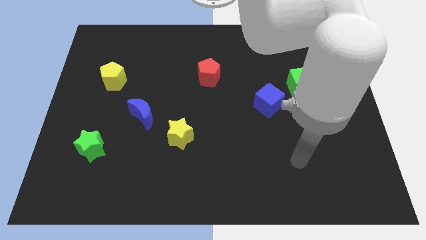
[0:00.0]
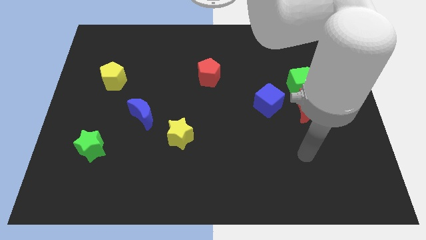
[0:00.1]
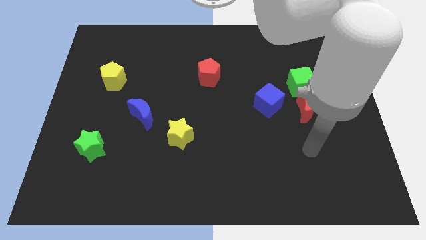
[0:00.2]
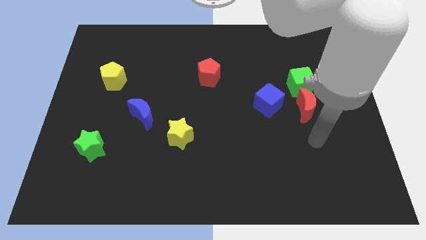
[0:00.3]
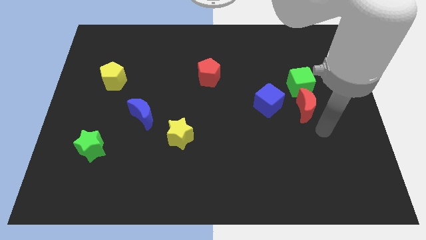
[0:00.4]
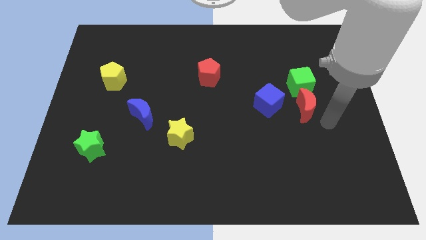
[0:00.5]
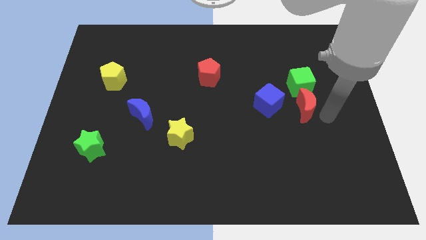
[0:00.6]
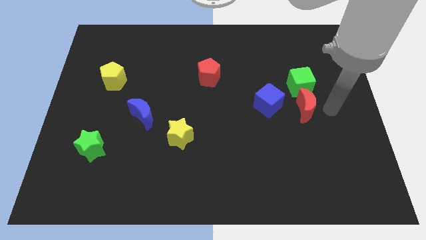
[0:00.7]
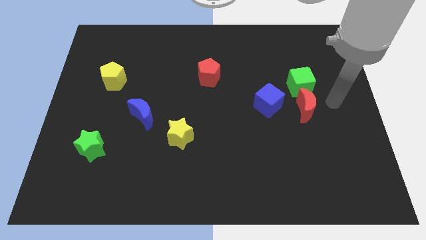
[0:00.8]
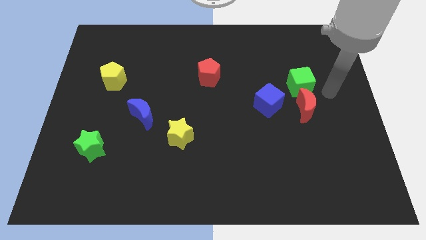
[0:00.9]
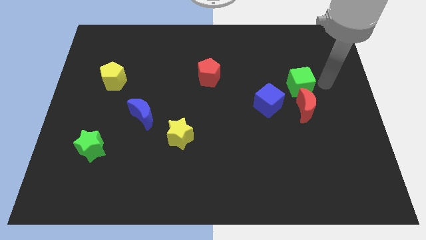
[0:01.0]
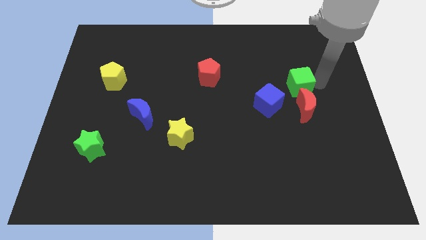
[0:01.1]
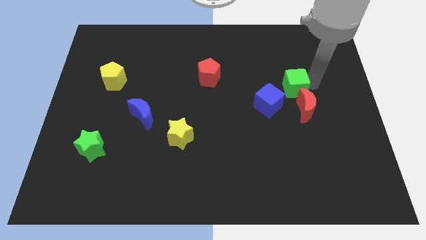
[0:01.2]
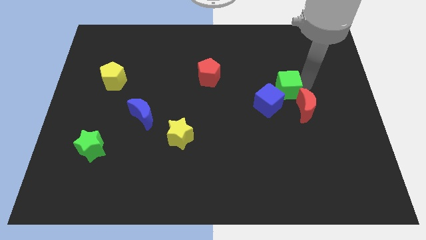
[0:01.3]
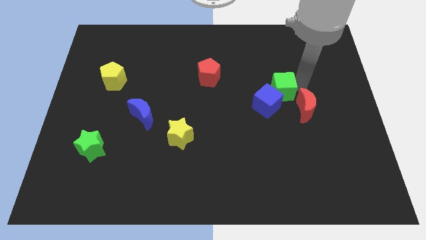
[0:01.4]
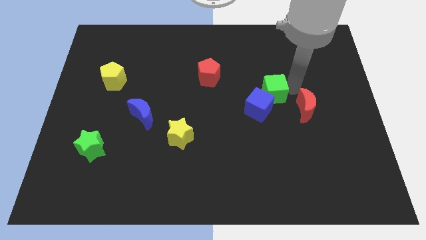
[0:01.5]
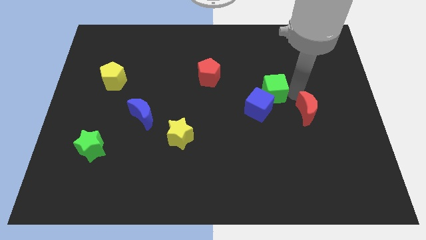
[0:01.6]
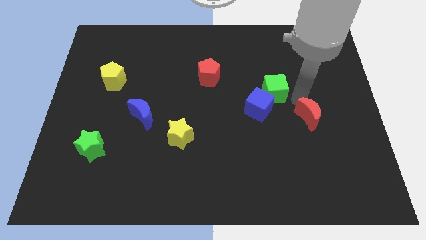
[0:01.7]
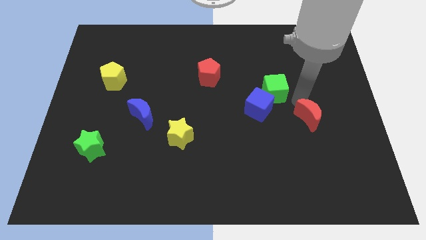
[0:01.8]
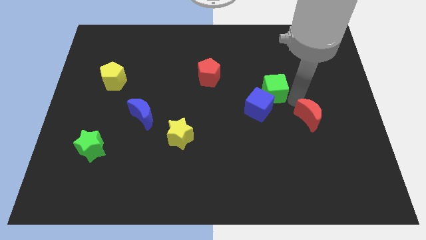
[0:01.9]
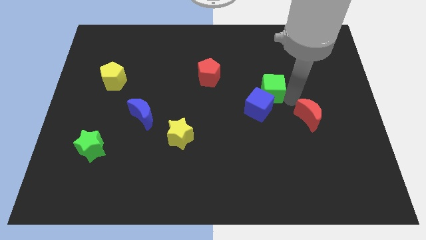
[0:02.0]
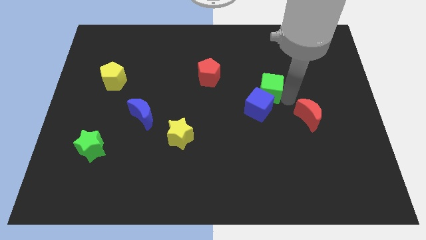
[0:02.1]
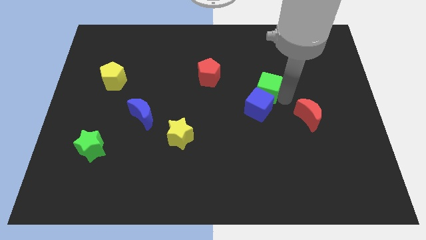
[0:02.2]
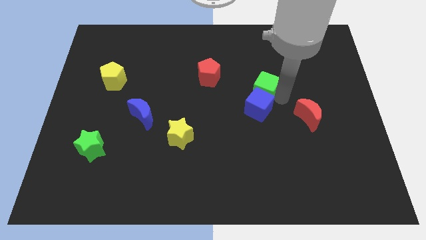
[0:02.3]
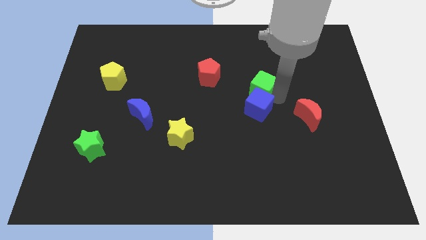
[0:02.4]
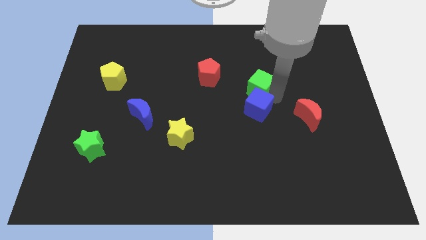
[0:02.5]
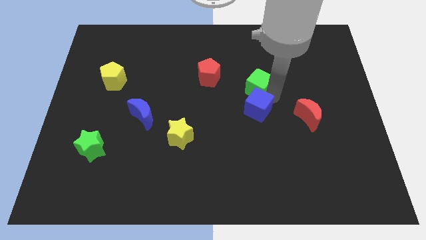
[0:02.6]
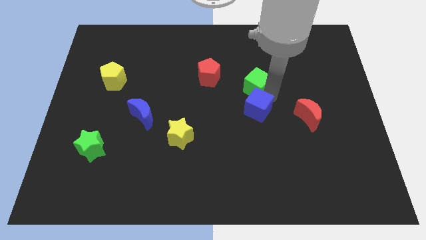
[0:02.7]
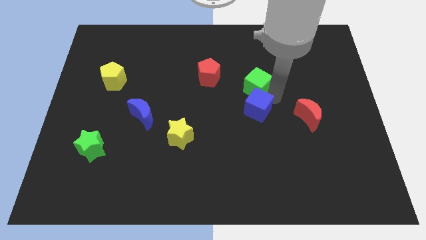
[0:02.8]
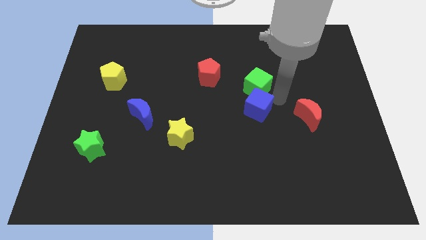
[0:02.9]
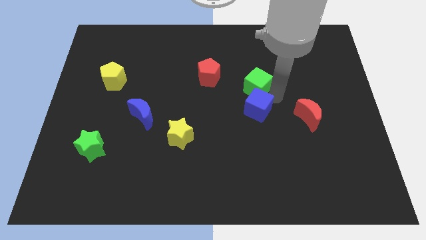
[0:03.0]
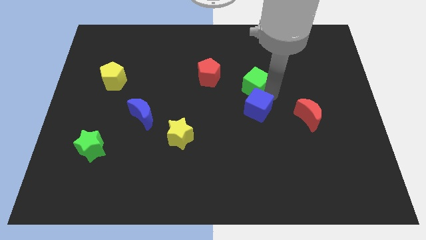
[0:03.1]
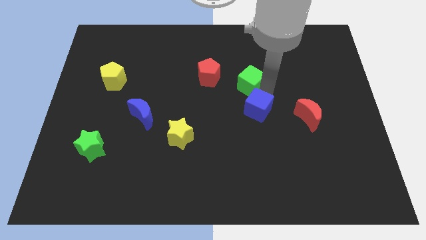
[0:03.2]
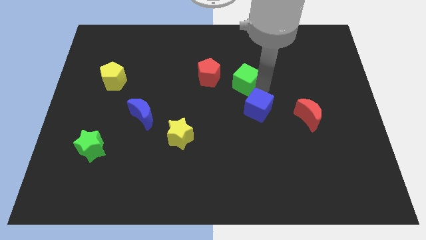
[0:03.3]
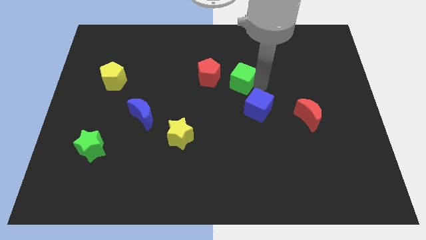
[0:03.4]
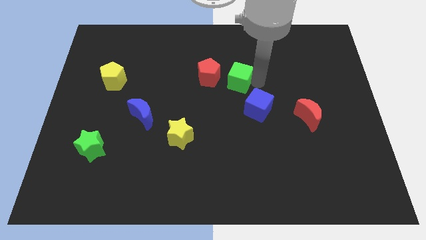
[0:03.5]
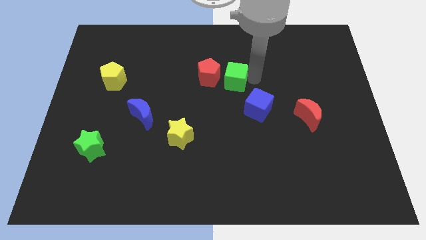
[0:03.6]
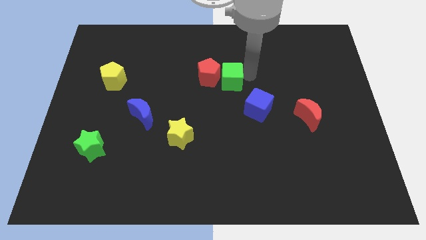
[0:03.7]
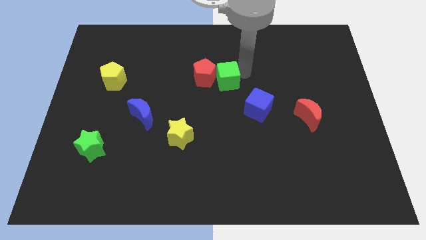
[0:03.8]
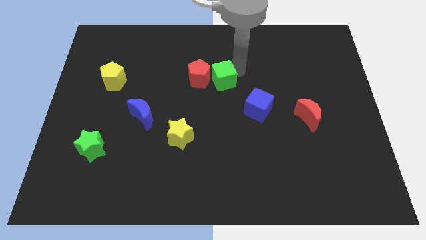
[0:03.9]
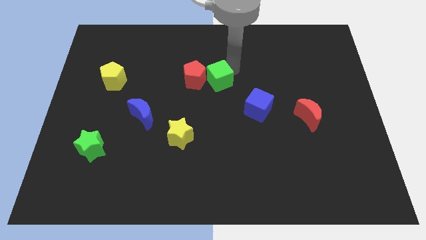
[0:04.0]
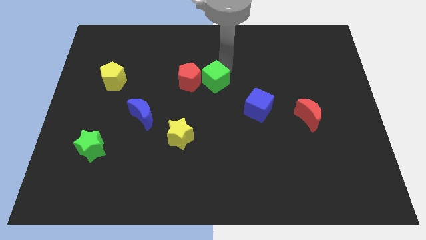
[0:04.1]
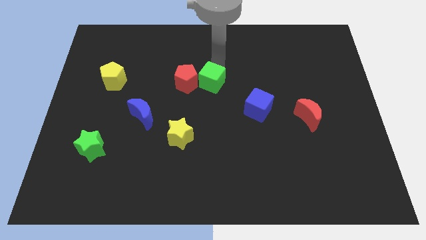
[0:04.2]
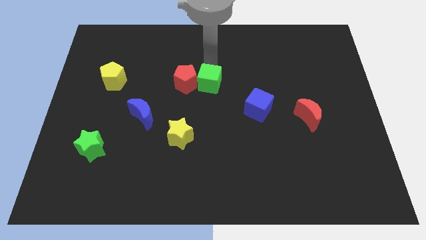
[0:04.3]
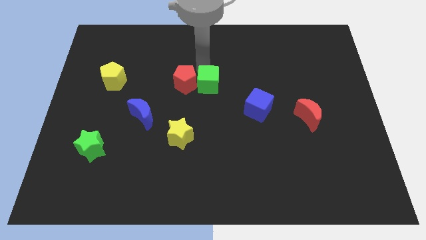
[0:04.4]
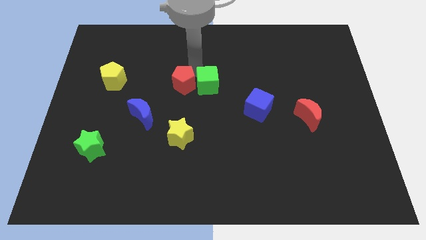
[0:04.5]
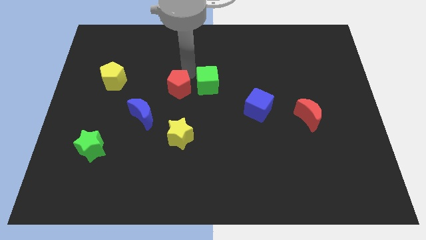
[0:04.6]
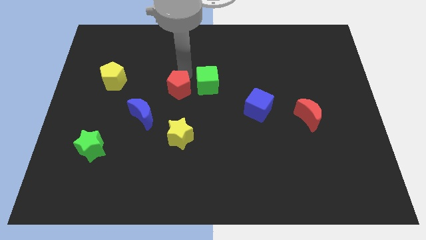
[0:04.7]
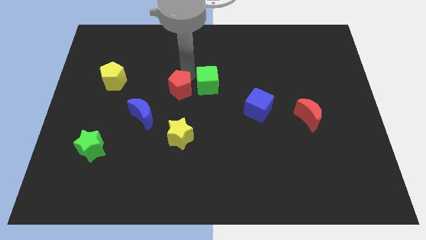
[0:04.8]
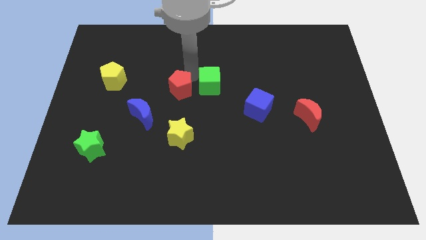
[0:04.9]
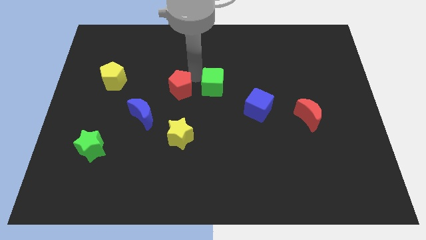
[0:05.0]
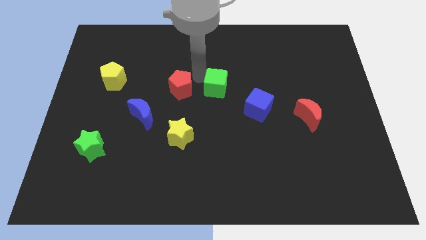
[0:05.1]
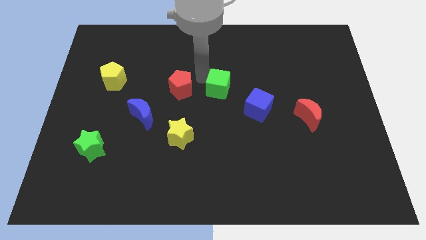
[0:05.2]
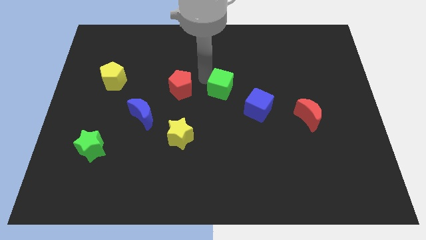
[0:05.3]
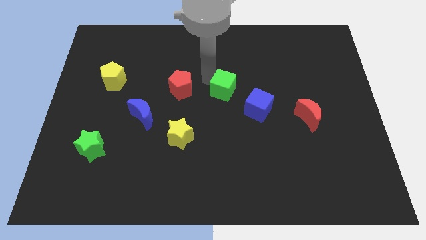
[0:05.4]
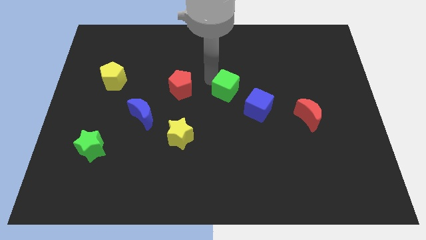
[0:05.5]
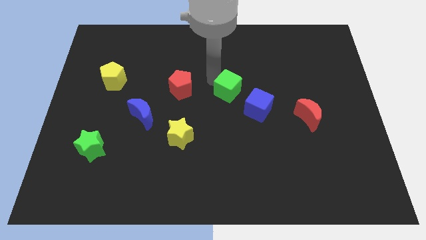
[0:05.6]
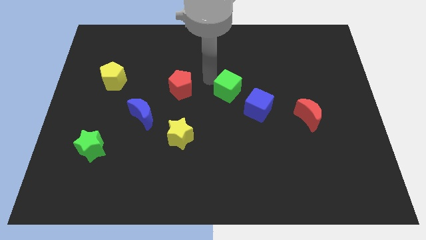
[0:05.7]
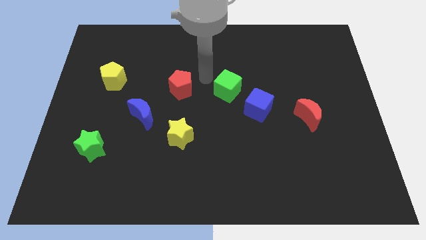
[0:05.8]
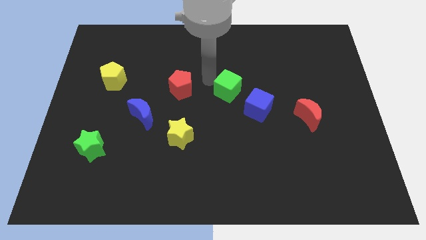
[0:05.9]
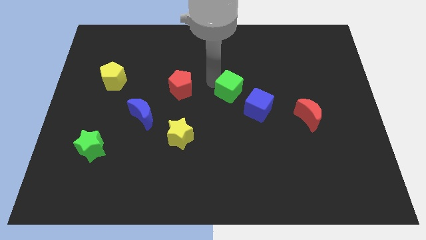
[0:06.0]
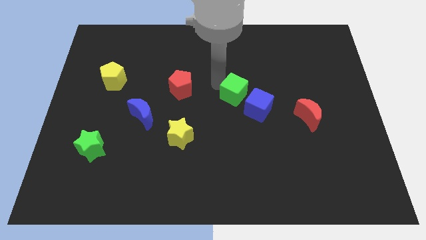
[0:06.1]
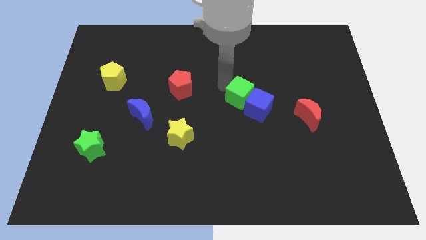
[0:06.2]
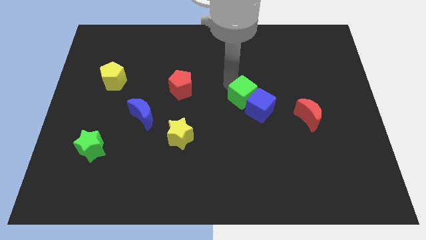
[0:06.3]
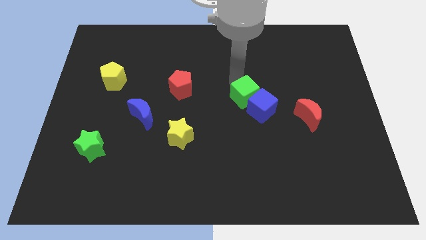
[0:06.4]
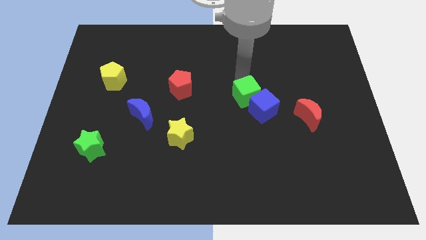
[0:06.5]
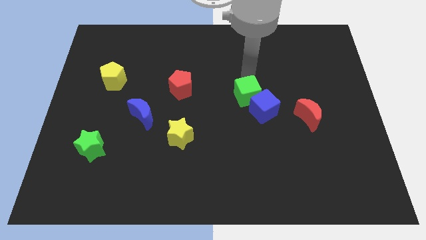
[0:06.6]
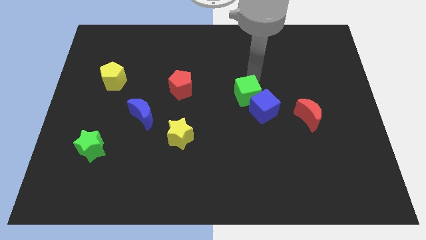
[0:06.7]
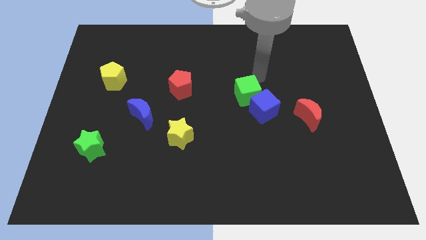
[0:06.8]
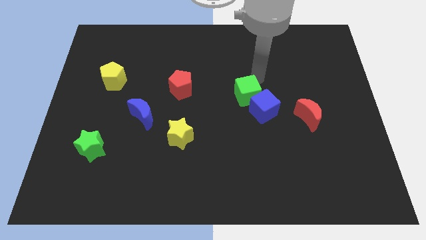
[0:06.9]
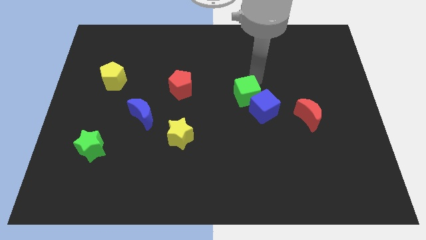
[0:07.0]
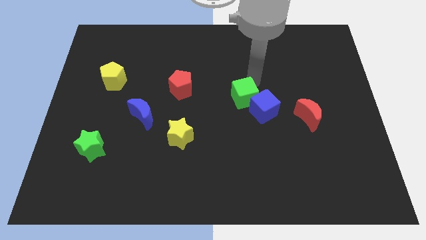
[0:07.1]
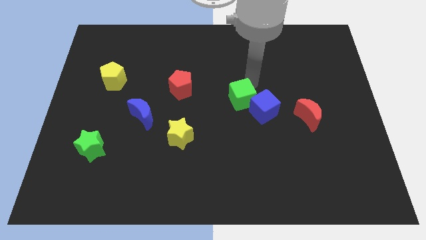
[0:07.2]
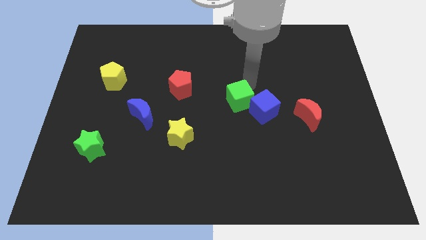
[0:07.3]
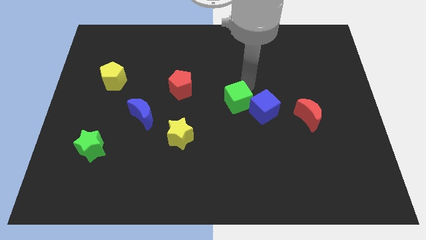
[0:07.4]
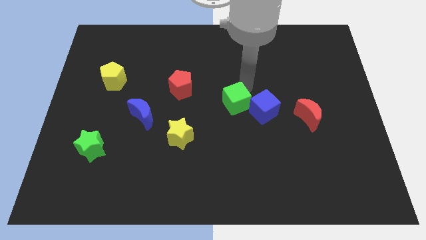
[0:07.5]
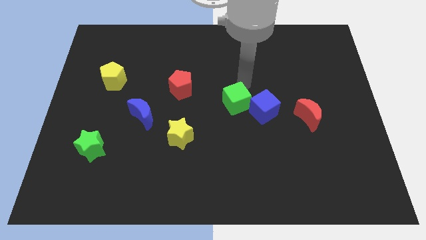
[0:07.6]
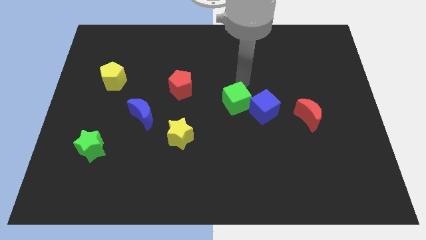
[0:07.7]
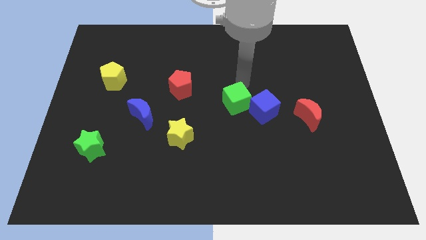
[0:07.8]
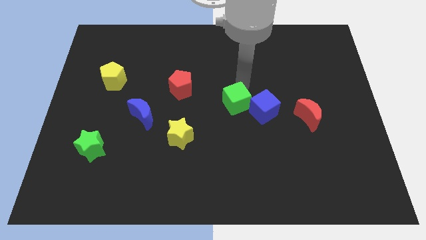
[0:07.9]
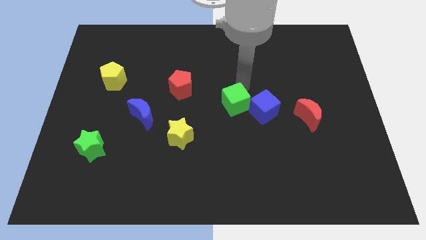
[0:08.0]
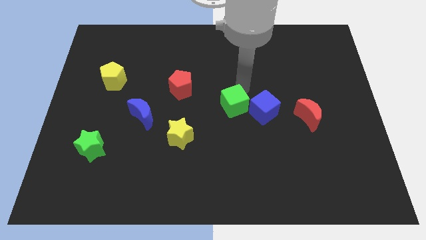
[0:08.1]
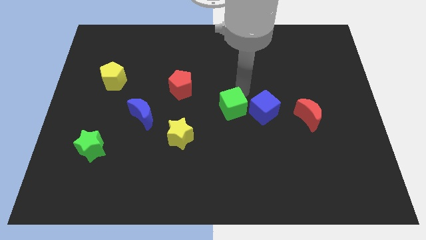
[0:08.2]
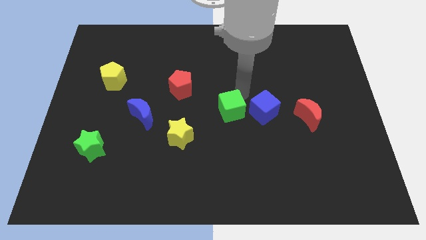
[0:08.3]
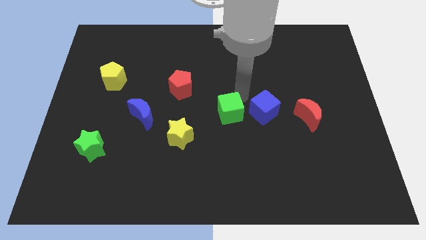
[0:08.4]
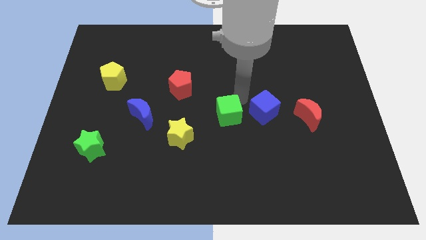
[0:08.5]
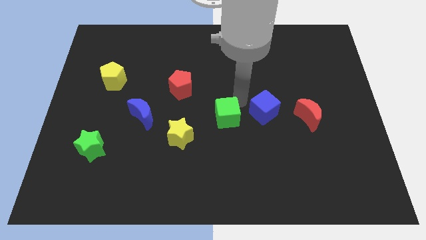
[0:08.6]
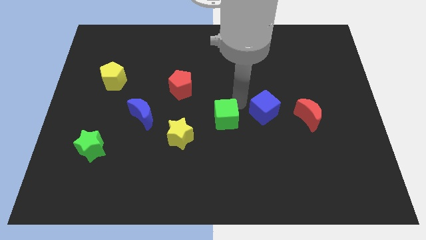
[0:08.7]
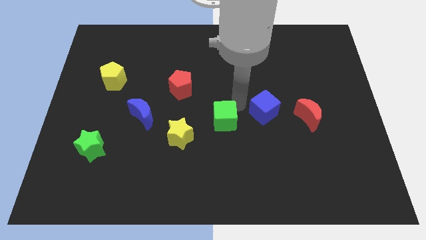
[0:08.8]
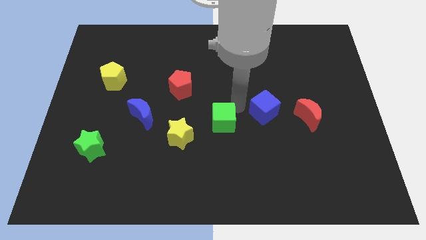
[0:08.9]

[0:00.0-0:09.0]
move the green cube down and then left
